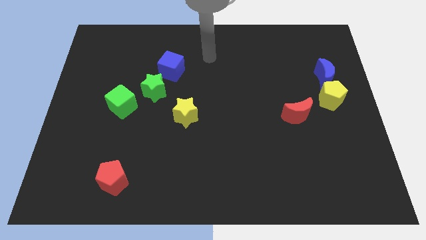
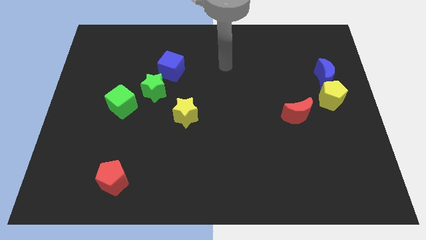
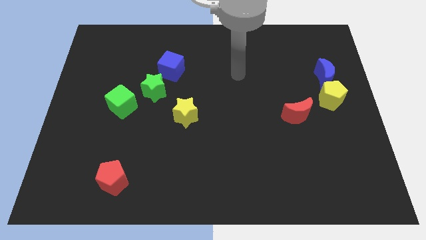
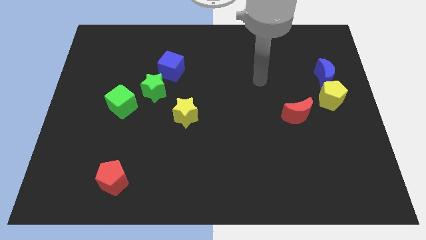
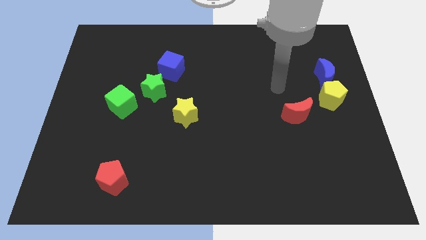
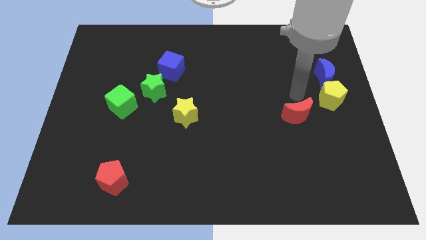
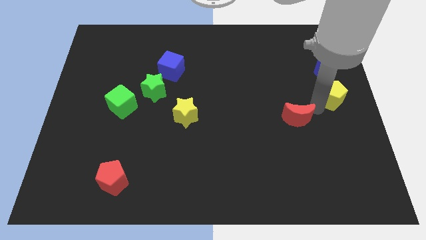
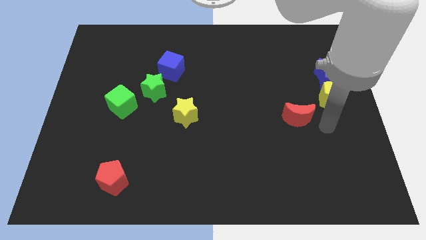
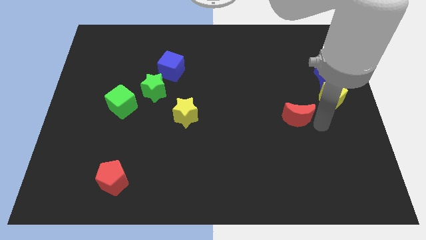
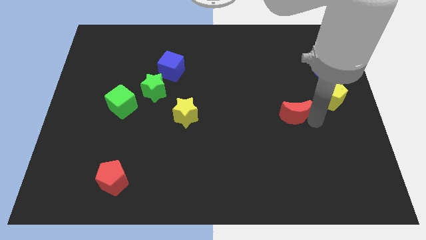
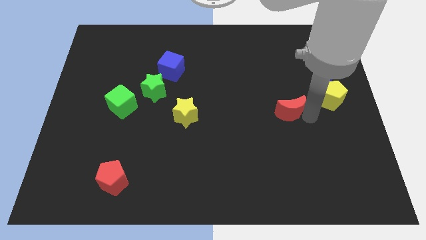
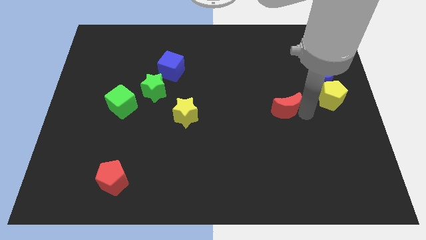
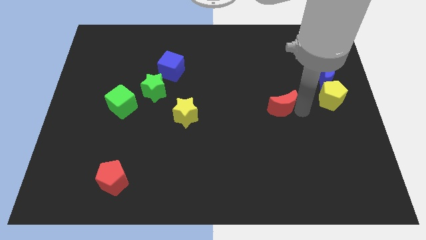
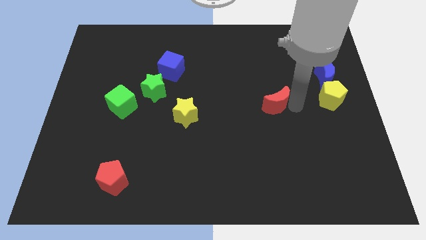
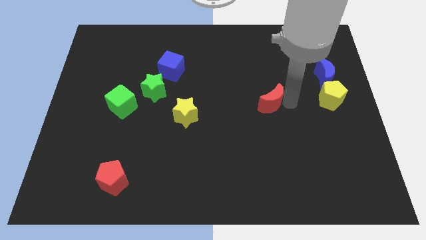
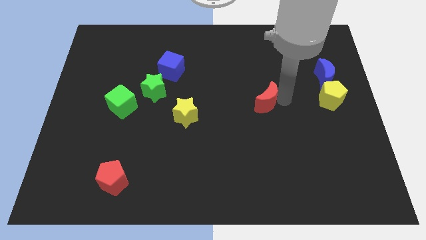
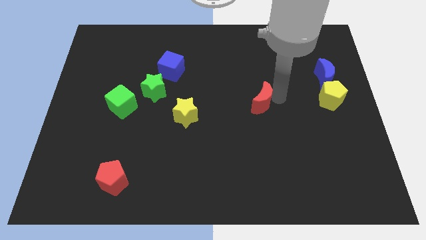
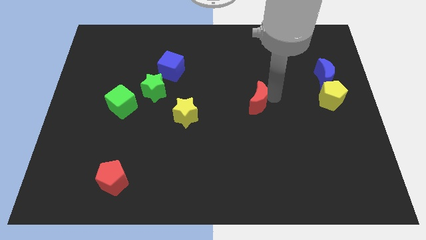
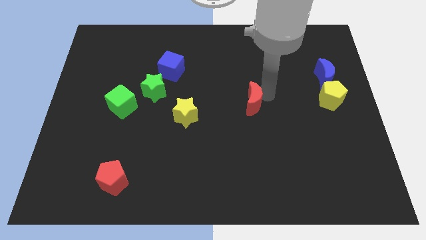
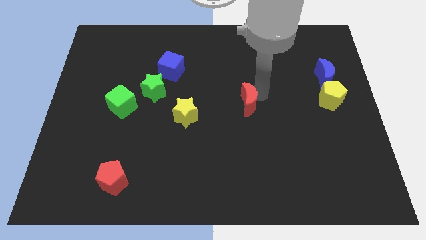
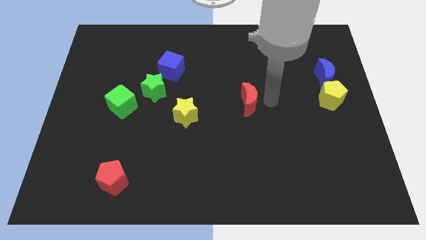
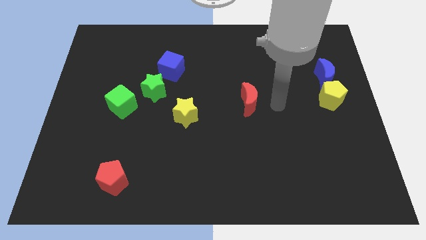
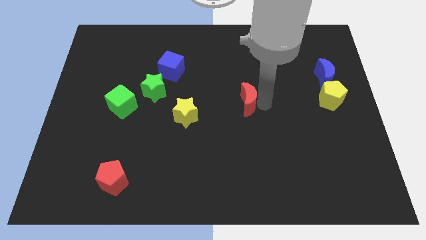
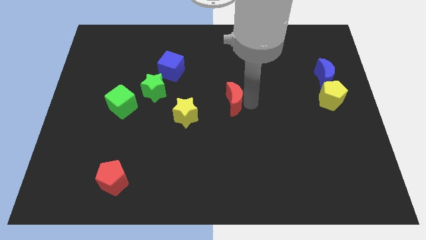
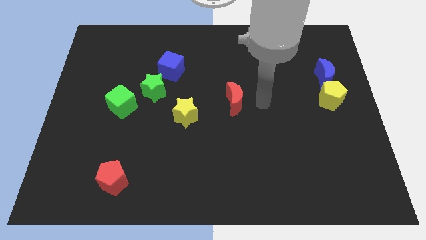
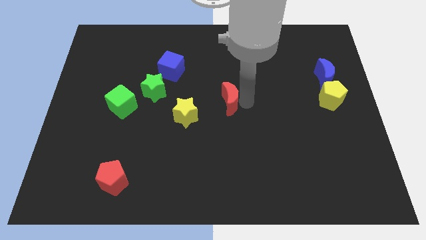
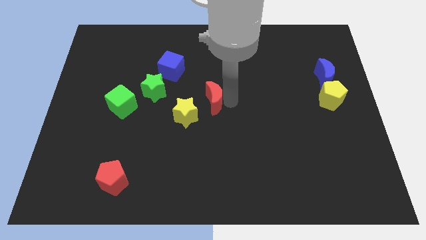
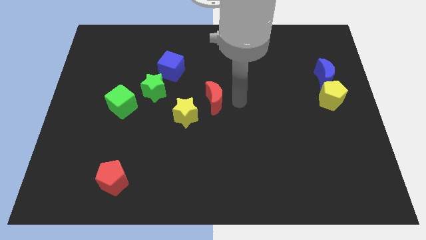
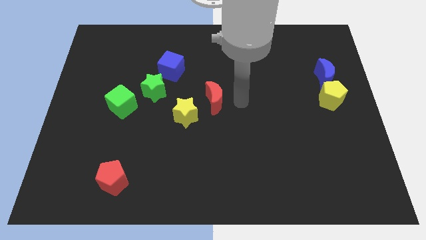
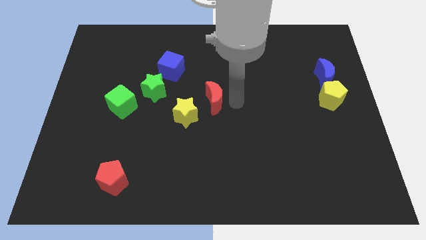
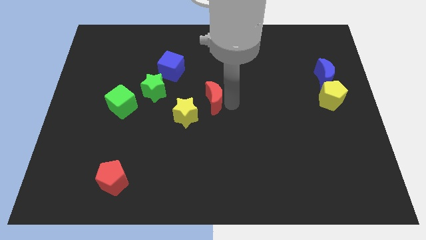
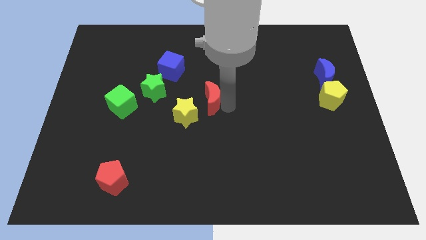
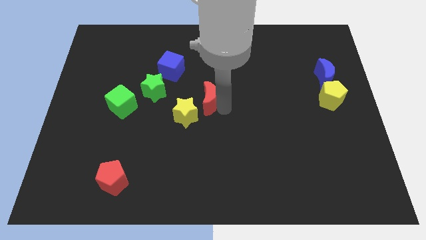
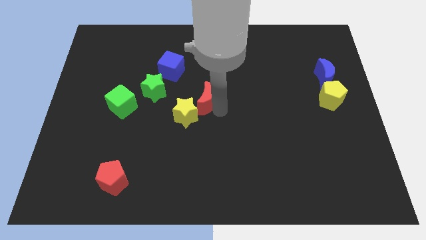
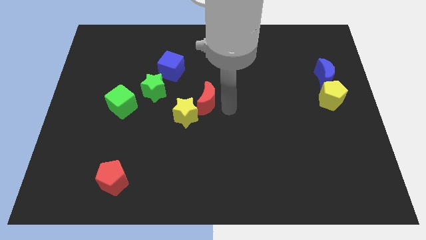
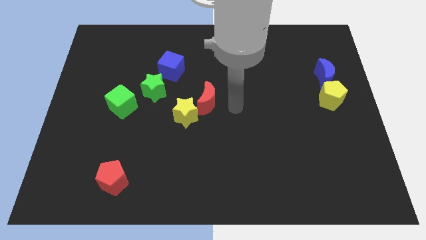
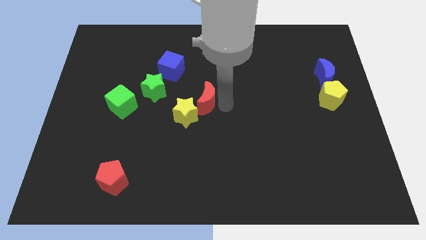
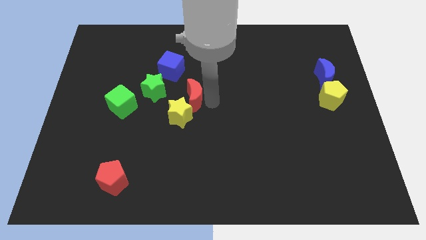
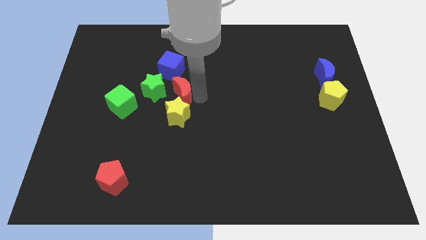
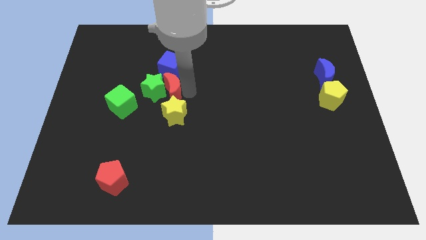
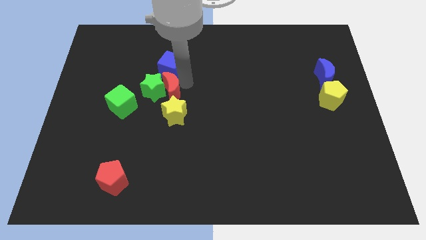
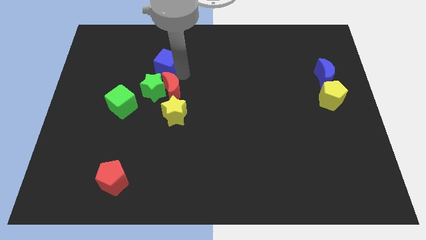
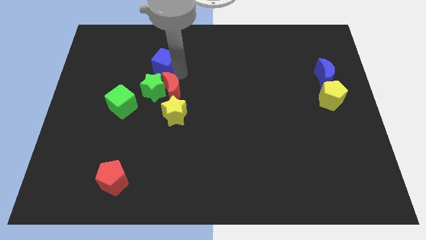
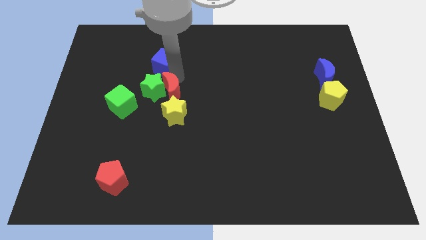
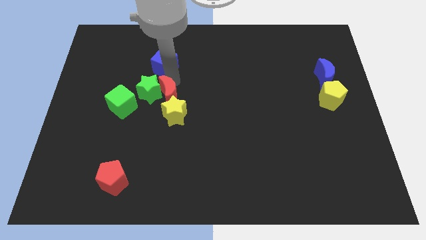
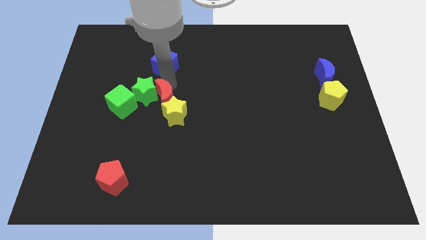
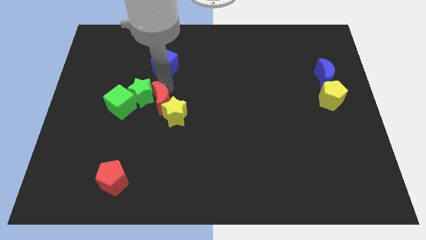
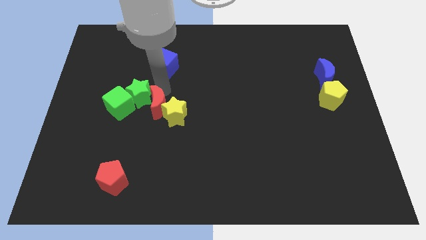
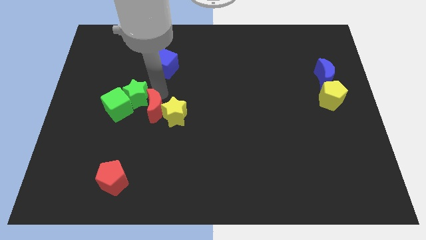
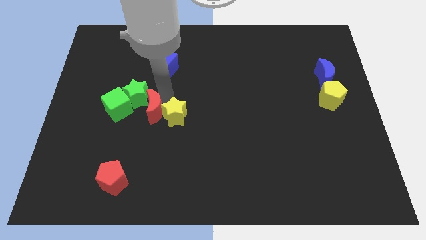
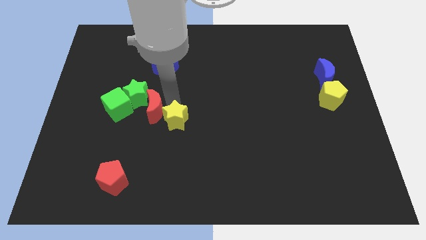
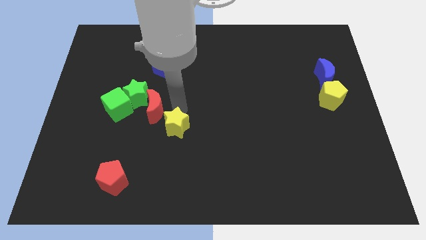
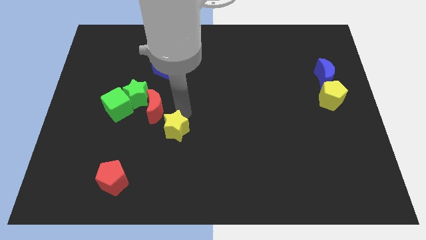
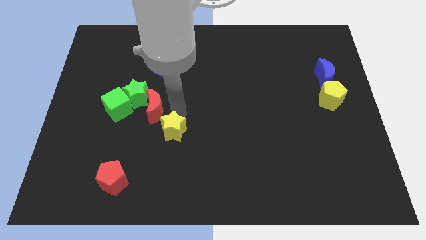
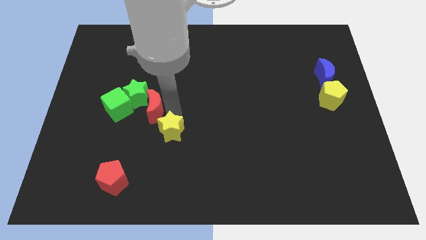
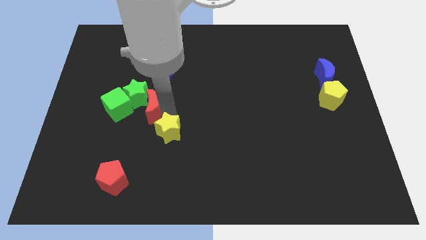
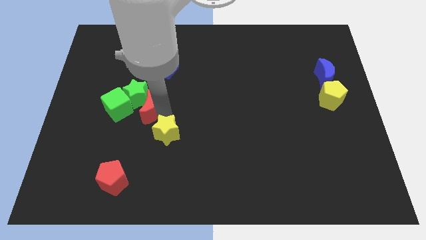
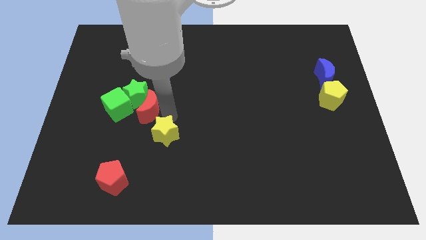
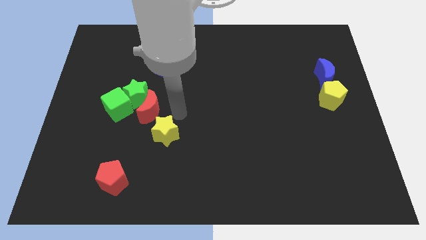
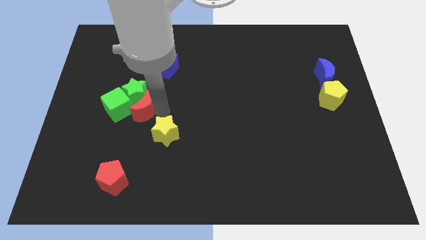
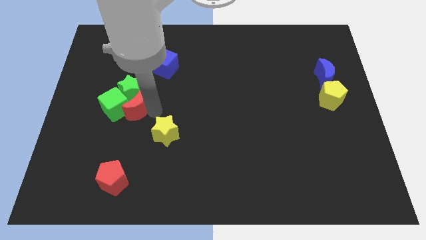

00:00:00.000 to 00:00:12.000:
move the red moon towards the green cube

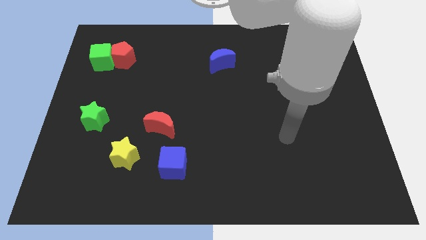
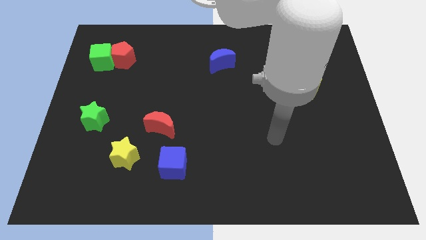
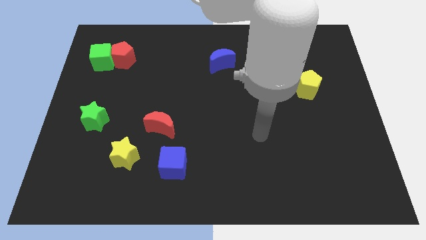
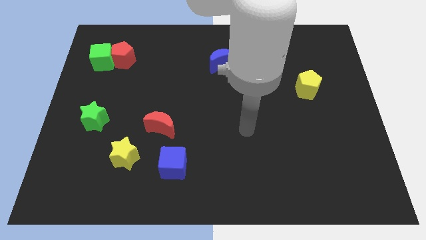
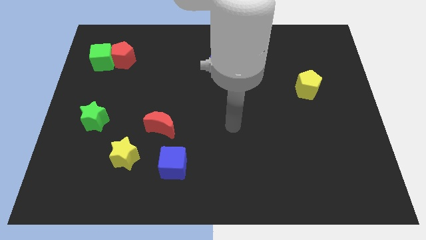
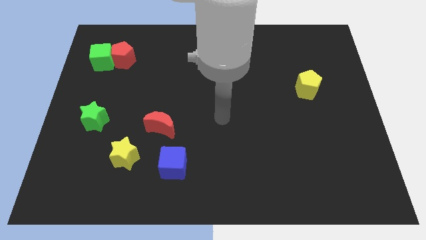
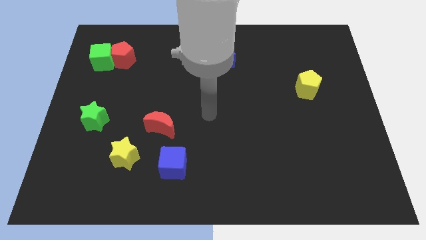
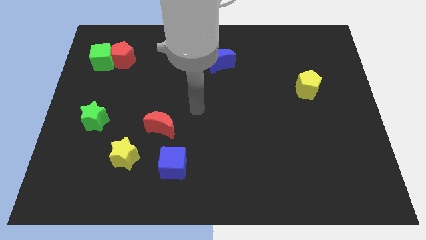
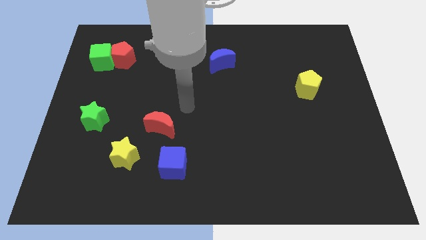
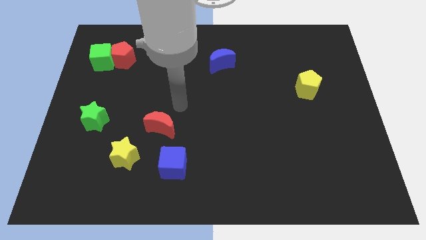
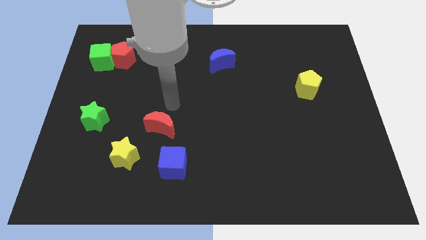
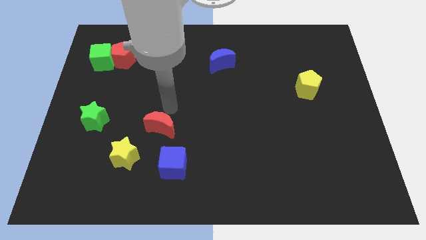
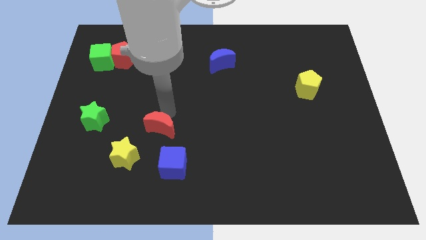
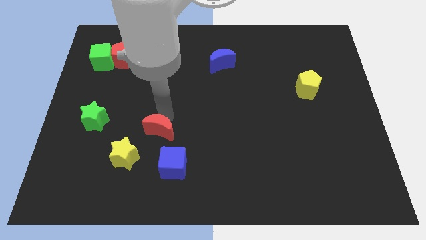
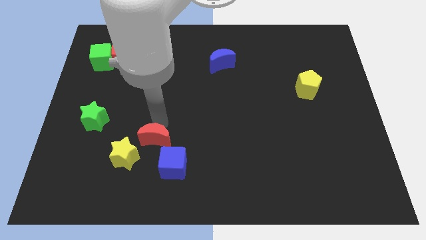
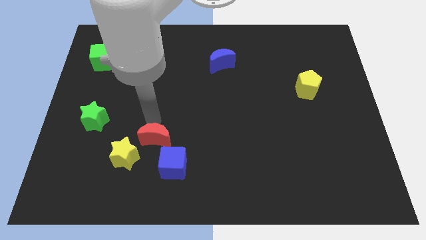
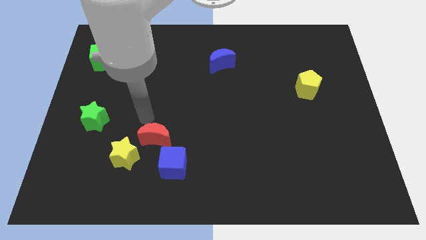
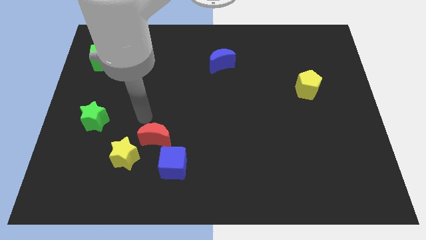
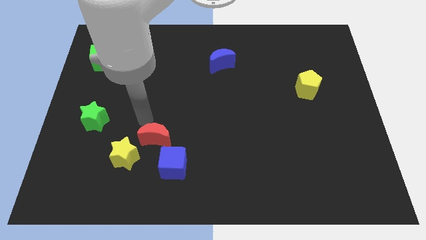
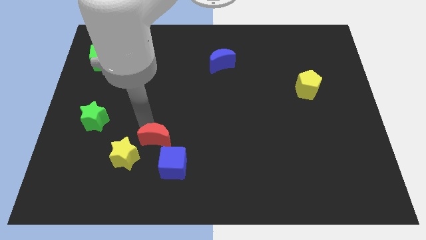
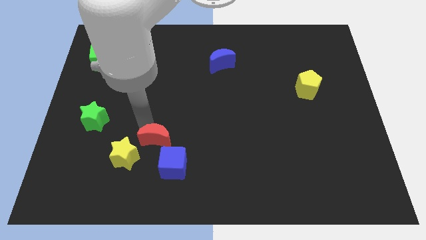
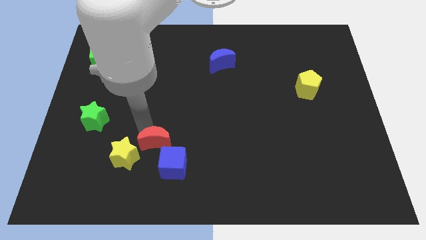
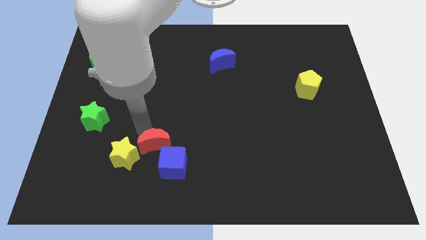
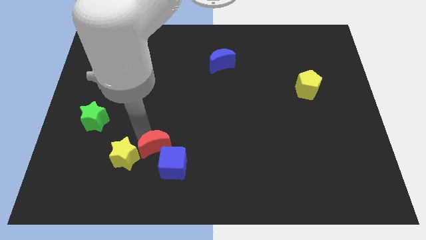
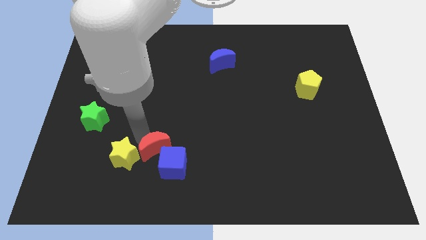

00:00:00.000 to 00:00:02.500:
move the red moon towards the blue cube
